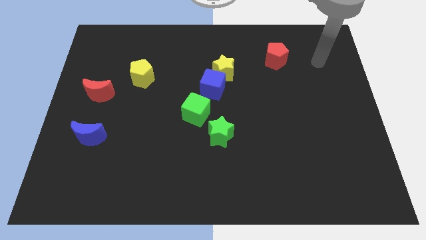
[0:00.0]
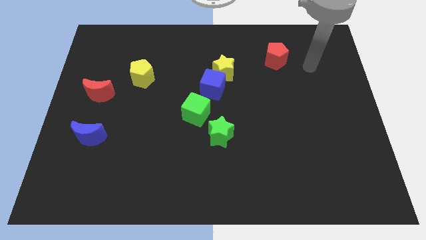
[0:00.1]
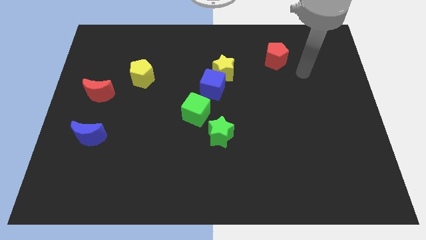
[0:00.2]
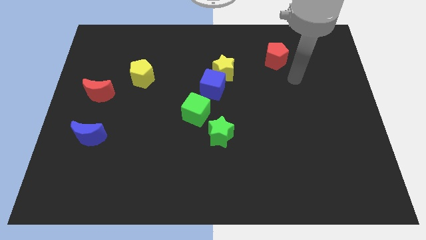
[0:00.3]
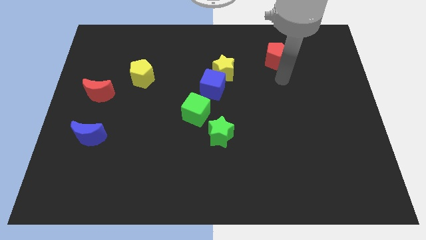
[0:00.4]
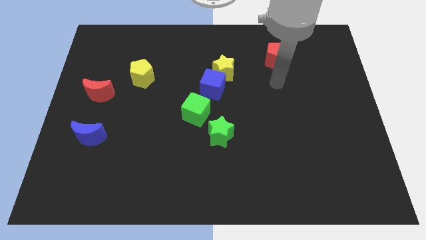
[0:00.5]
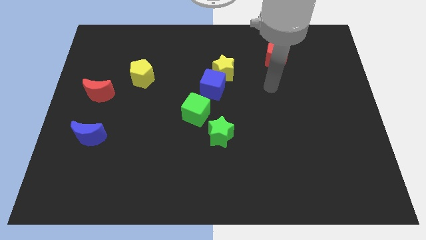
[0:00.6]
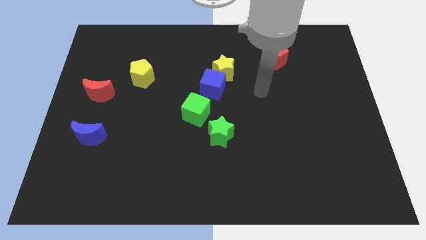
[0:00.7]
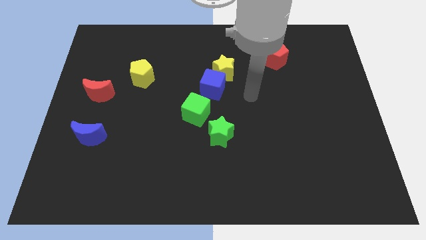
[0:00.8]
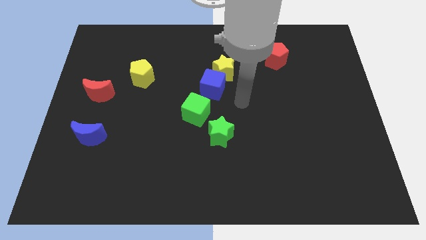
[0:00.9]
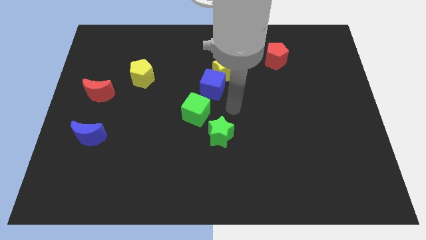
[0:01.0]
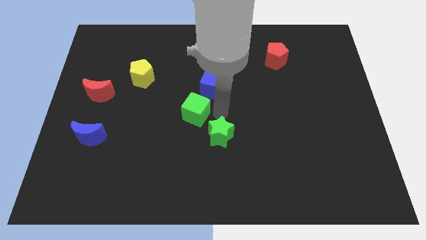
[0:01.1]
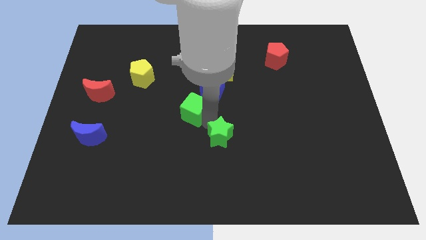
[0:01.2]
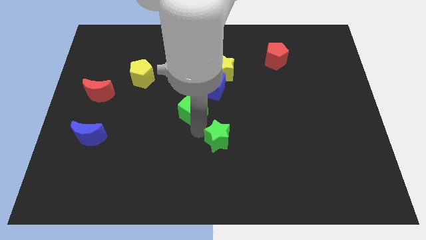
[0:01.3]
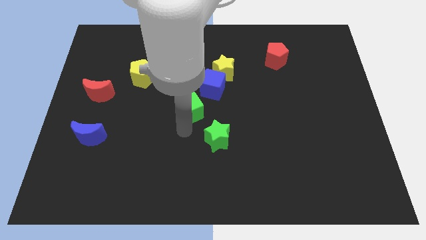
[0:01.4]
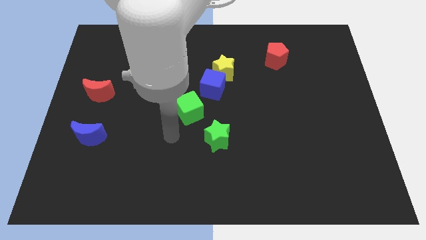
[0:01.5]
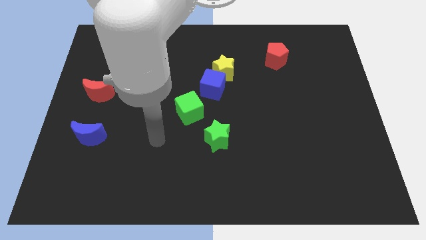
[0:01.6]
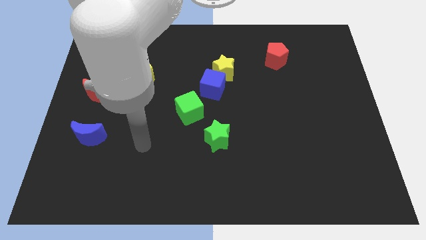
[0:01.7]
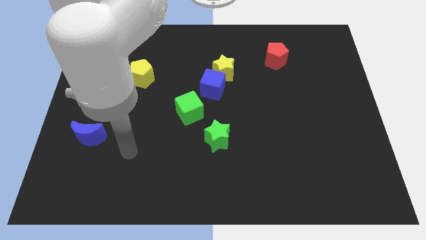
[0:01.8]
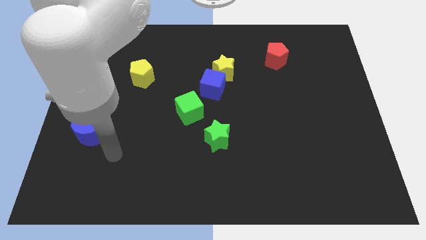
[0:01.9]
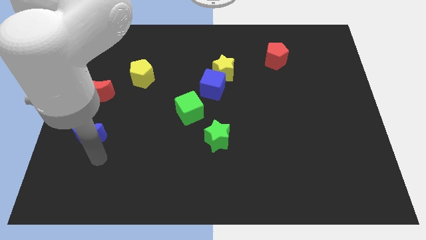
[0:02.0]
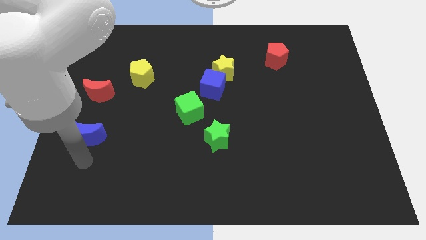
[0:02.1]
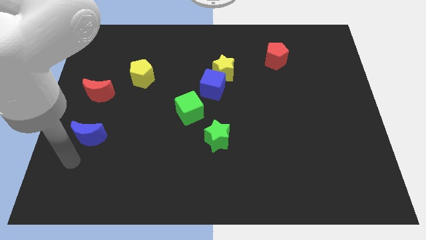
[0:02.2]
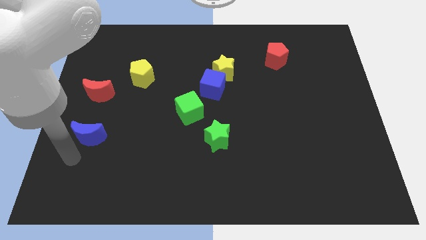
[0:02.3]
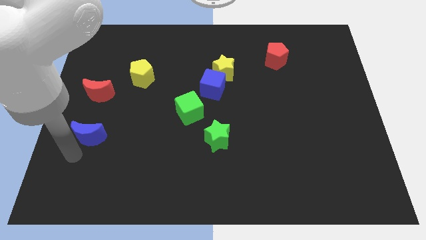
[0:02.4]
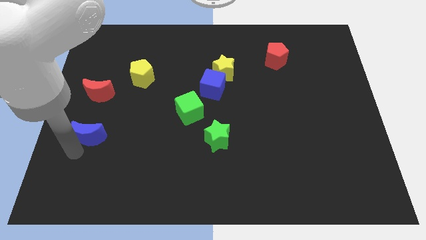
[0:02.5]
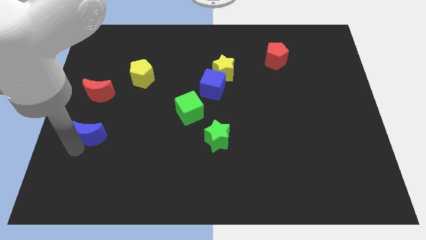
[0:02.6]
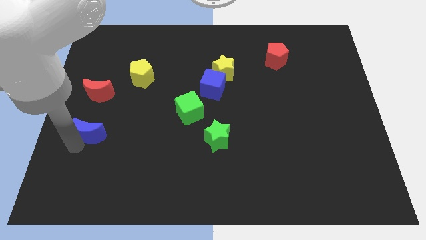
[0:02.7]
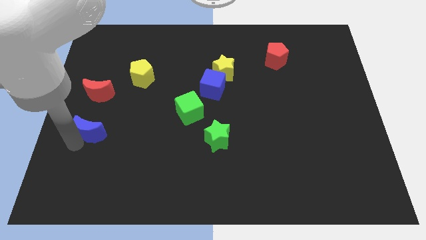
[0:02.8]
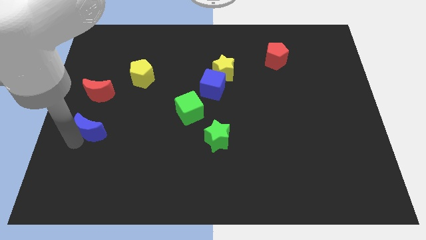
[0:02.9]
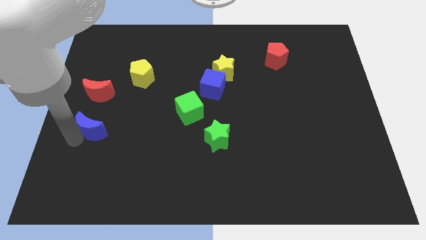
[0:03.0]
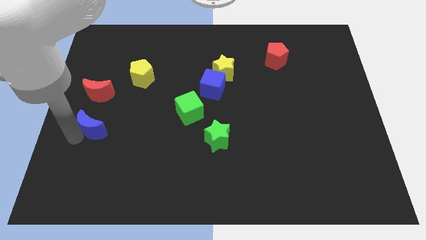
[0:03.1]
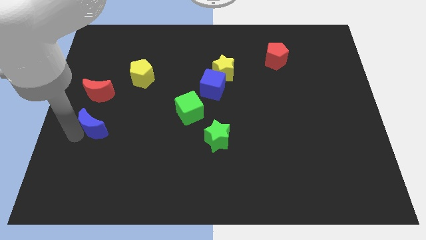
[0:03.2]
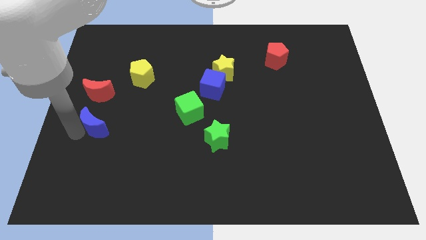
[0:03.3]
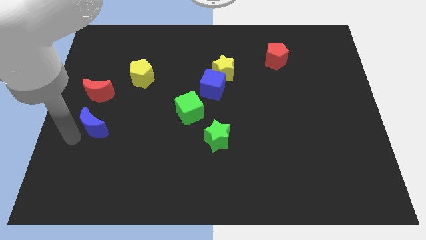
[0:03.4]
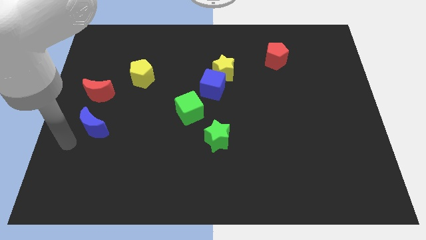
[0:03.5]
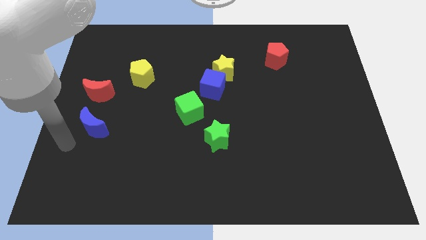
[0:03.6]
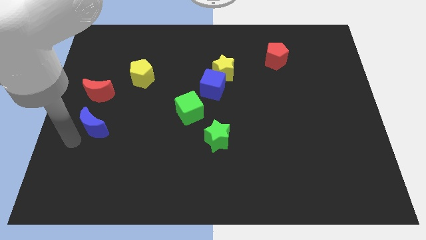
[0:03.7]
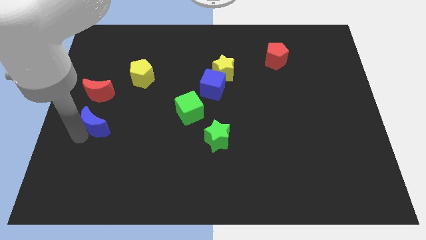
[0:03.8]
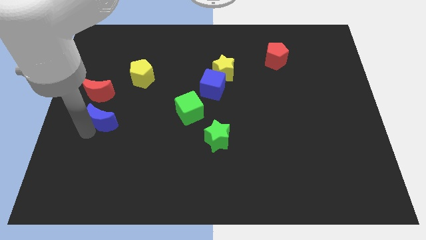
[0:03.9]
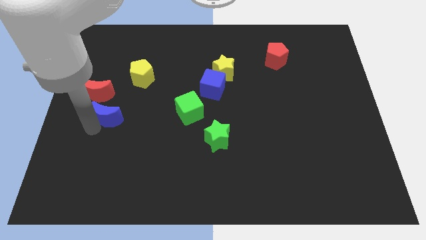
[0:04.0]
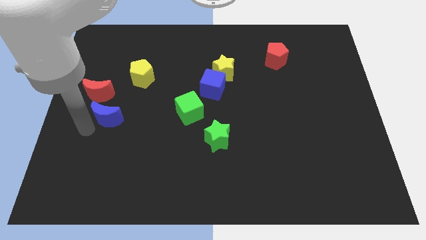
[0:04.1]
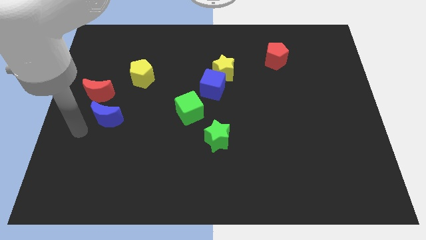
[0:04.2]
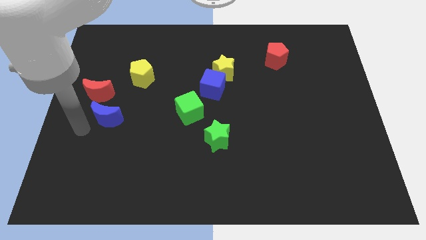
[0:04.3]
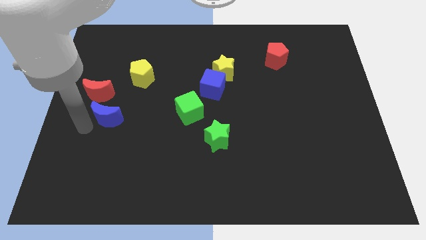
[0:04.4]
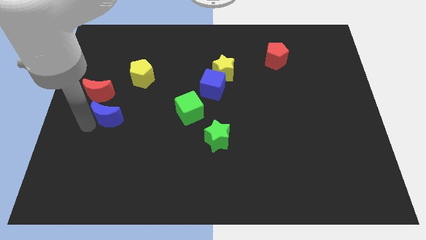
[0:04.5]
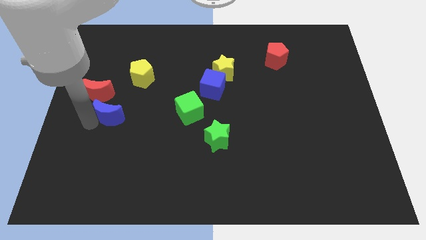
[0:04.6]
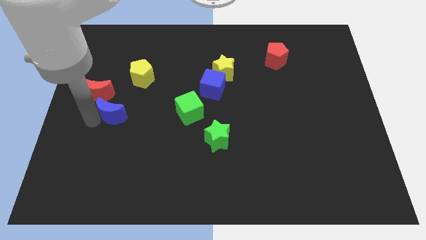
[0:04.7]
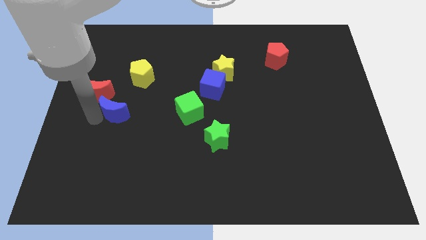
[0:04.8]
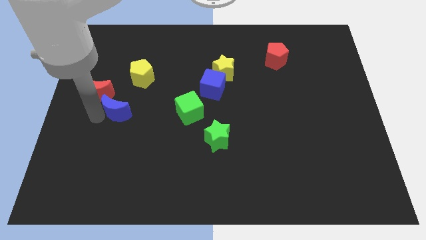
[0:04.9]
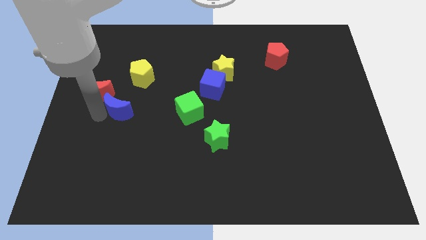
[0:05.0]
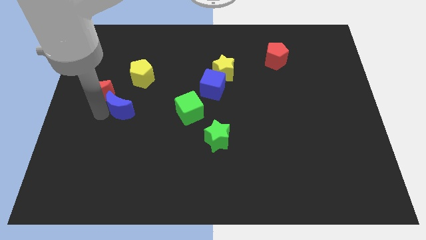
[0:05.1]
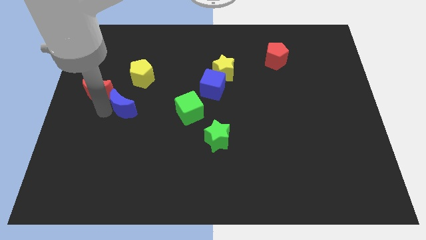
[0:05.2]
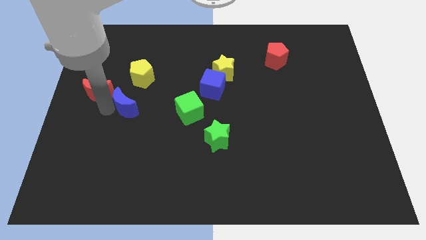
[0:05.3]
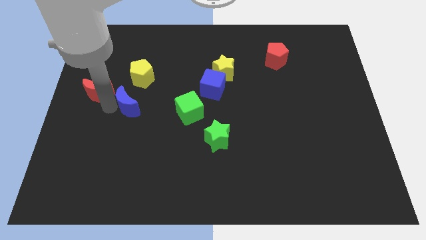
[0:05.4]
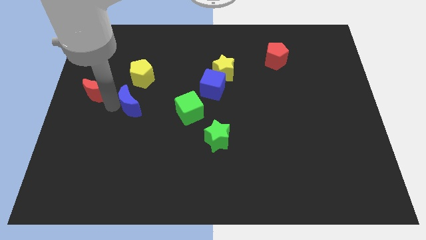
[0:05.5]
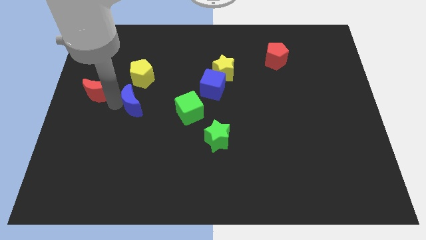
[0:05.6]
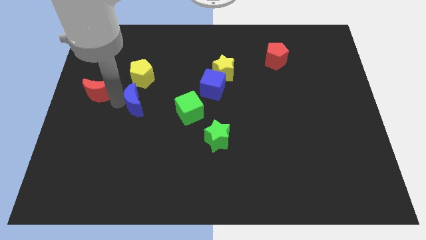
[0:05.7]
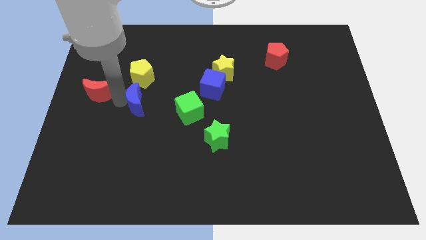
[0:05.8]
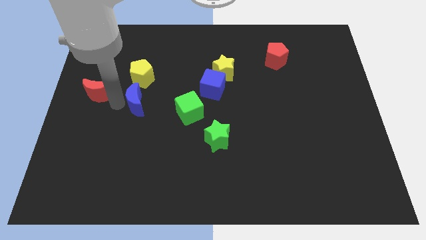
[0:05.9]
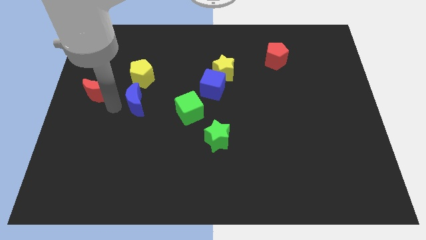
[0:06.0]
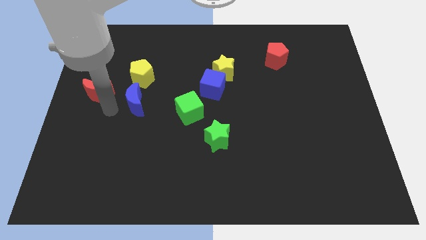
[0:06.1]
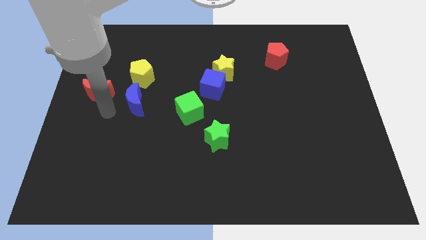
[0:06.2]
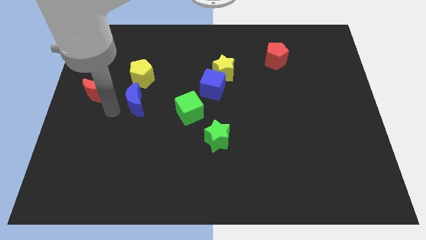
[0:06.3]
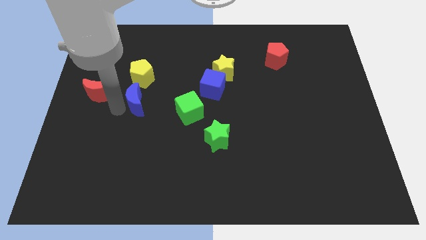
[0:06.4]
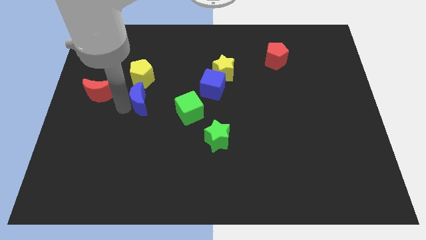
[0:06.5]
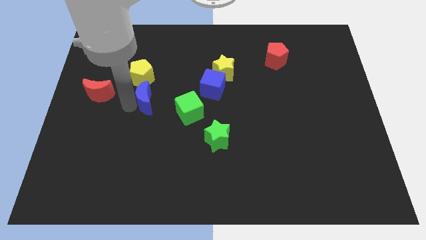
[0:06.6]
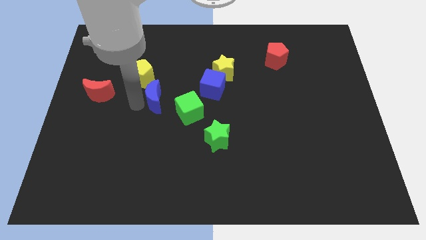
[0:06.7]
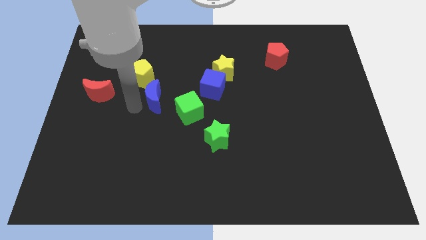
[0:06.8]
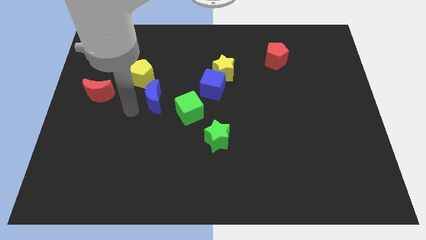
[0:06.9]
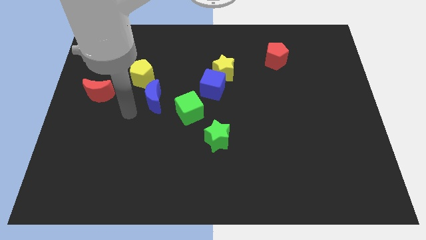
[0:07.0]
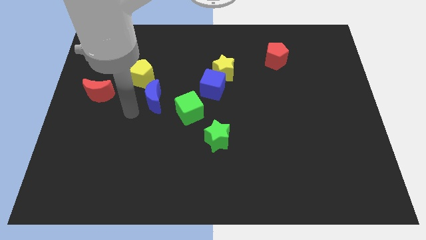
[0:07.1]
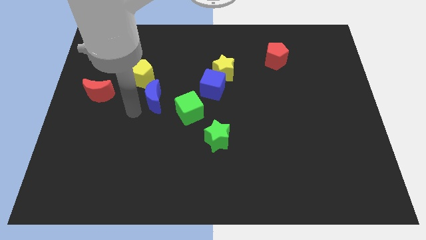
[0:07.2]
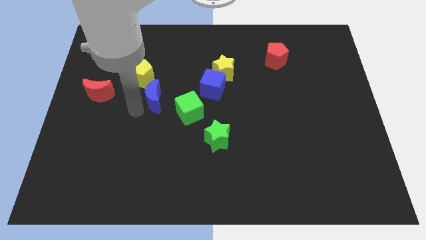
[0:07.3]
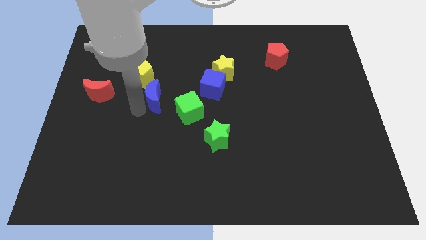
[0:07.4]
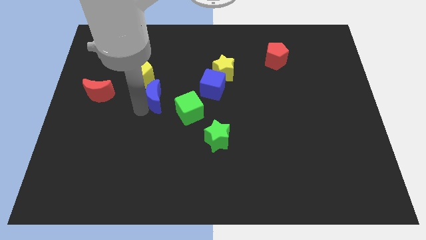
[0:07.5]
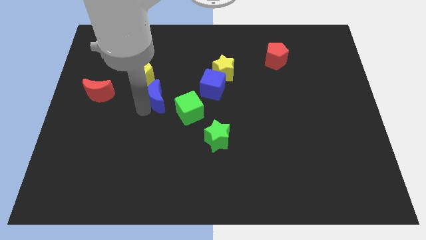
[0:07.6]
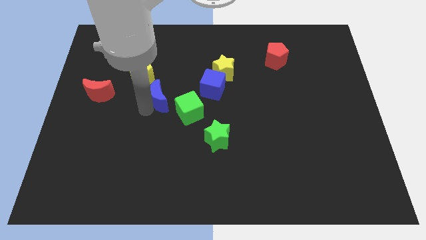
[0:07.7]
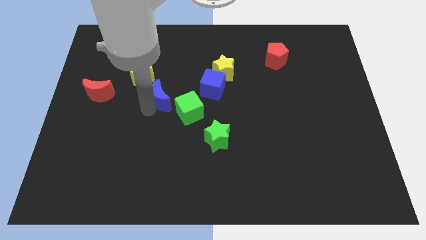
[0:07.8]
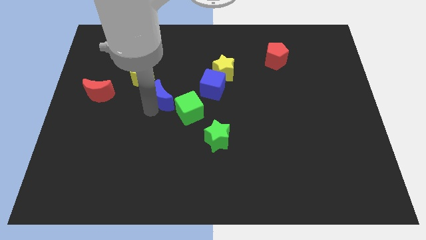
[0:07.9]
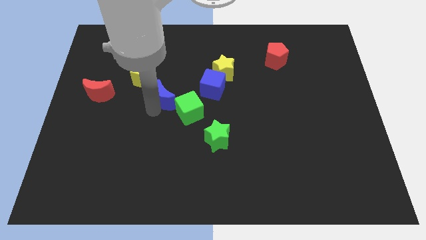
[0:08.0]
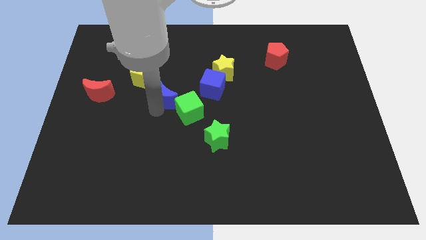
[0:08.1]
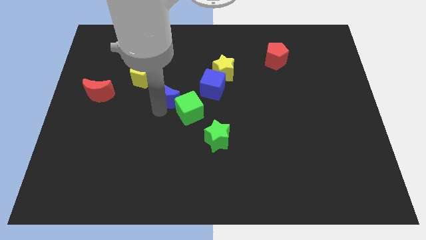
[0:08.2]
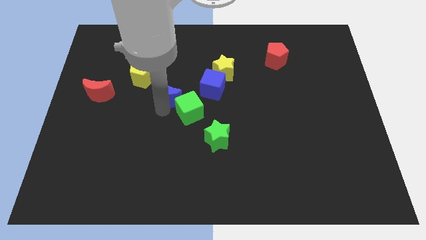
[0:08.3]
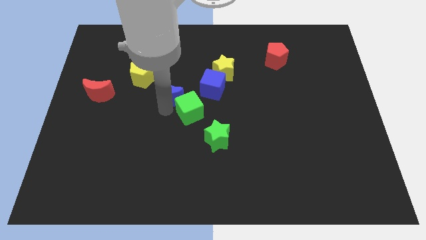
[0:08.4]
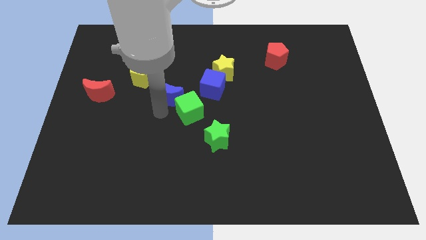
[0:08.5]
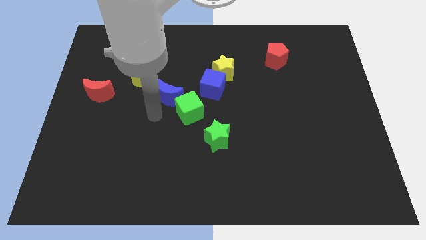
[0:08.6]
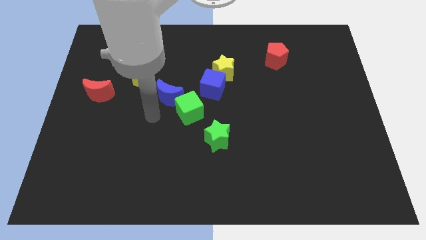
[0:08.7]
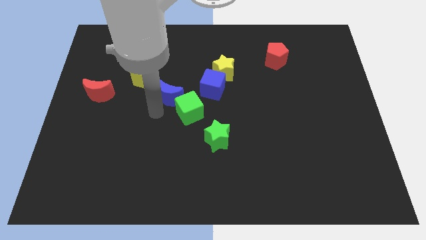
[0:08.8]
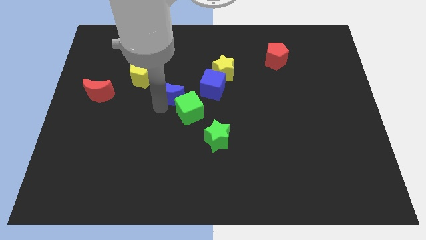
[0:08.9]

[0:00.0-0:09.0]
push the blue moon diagonally up and right
